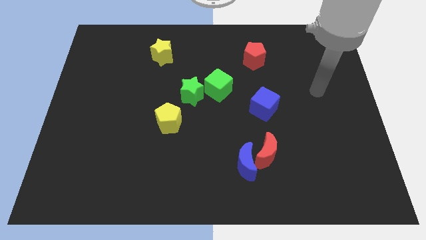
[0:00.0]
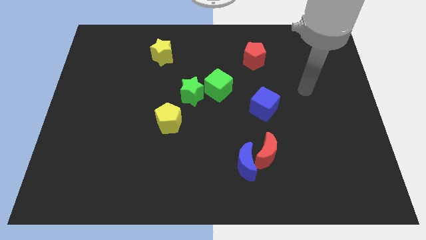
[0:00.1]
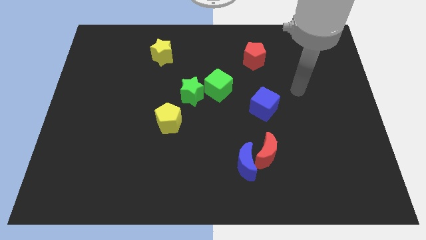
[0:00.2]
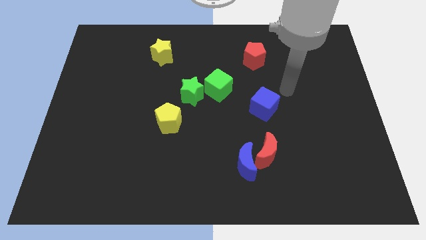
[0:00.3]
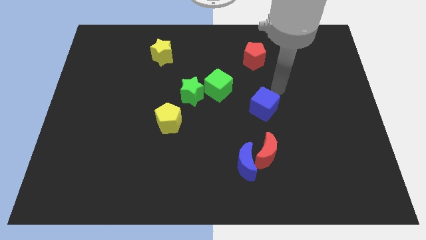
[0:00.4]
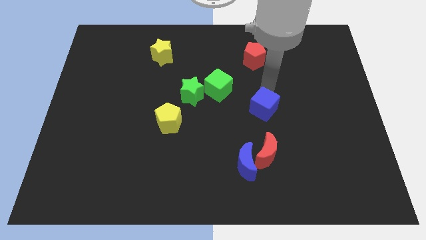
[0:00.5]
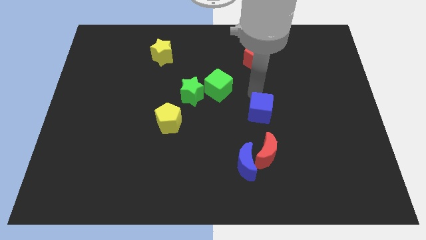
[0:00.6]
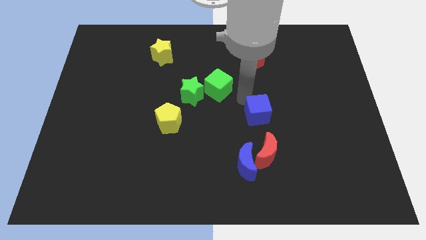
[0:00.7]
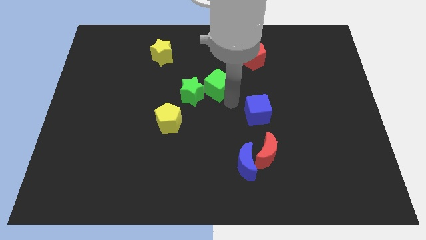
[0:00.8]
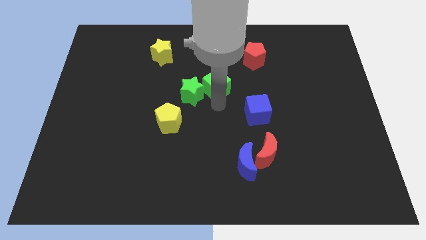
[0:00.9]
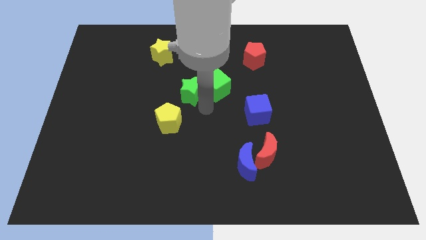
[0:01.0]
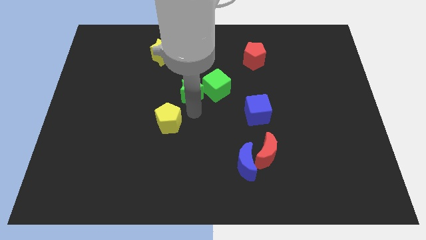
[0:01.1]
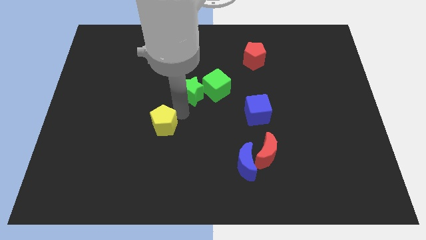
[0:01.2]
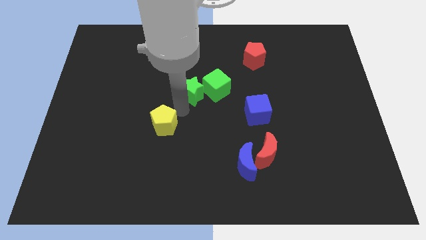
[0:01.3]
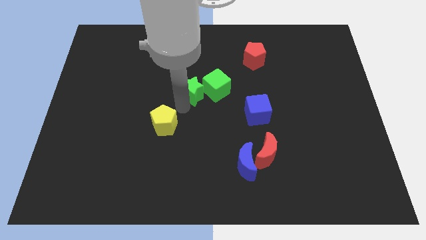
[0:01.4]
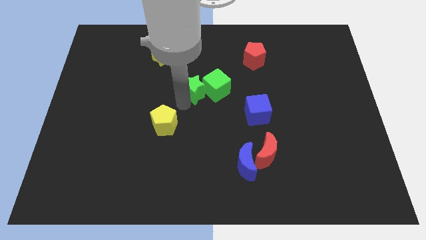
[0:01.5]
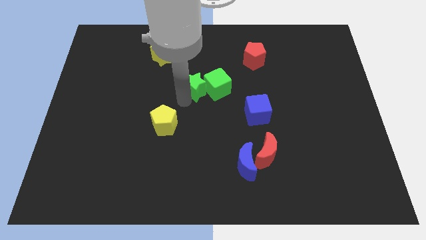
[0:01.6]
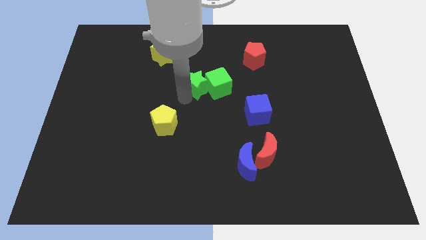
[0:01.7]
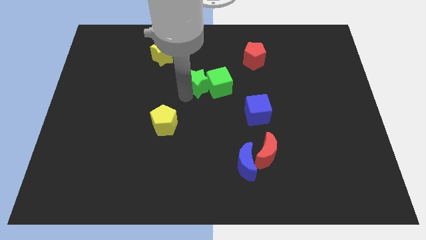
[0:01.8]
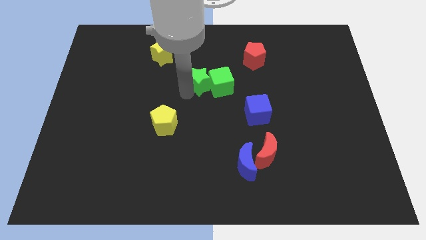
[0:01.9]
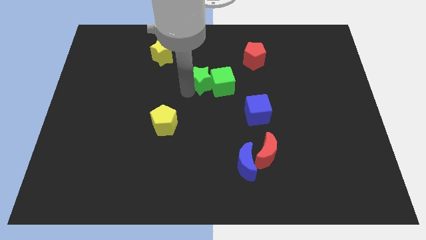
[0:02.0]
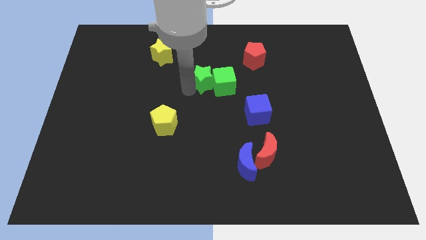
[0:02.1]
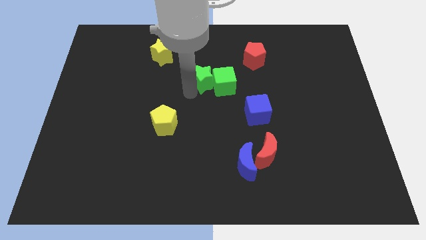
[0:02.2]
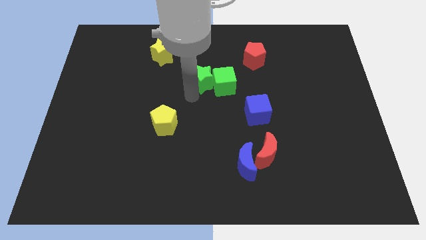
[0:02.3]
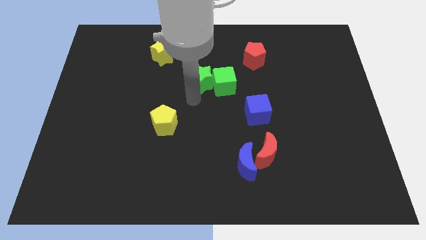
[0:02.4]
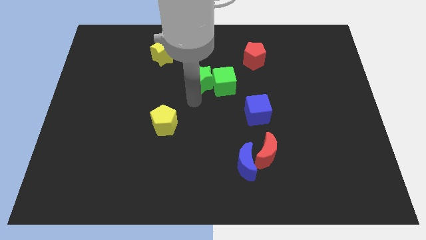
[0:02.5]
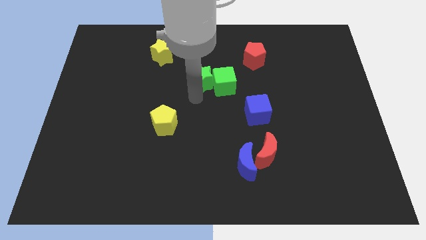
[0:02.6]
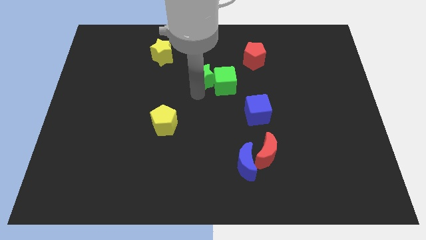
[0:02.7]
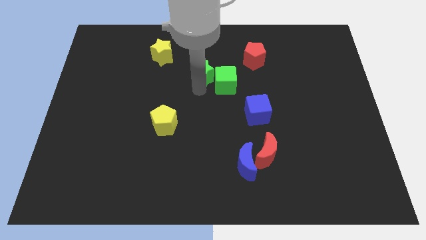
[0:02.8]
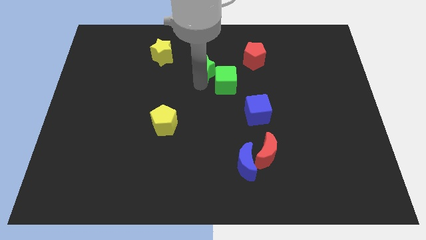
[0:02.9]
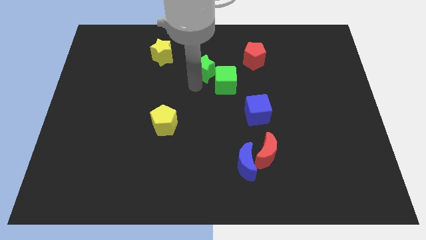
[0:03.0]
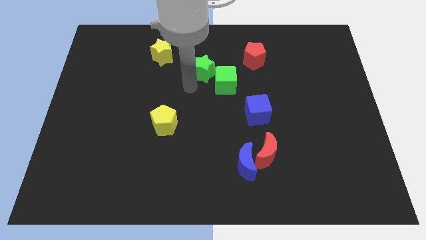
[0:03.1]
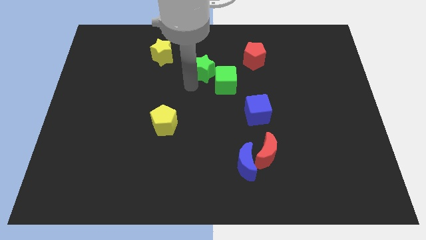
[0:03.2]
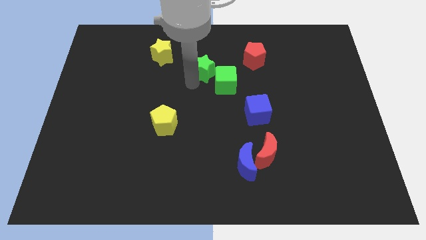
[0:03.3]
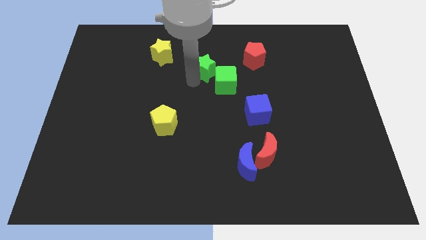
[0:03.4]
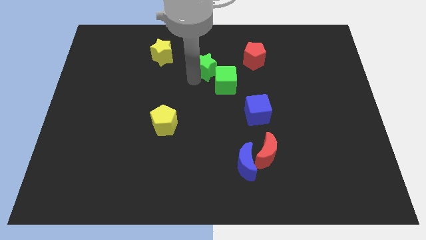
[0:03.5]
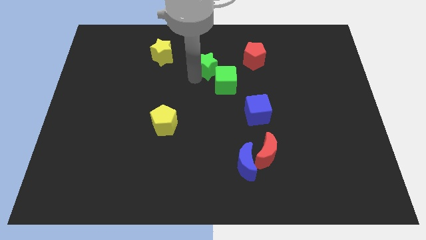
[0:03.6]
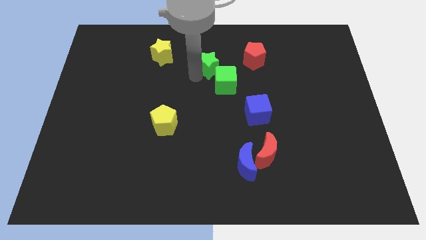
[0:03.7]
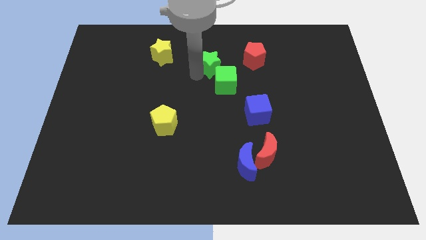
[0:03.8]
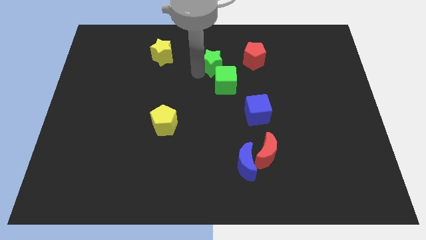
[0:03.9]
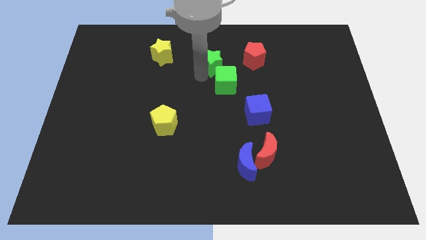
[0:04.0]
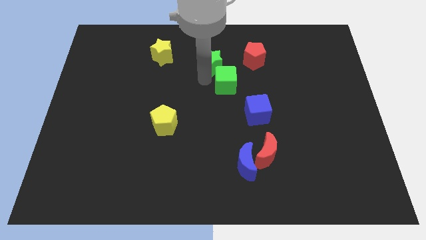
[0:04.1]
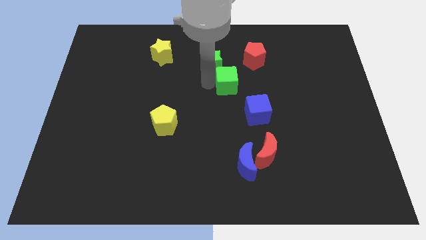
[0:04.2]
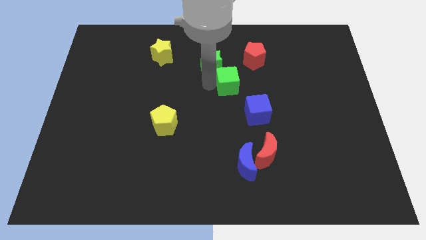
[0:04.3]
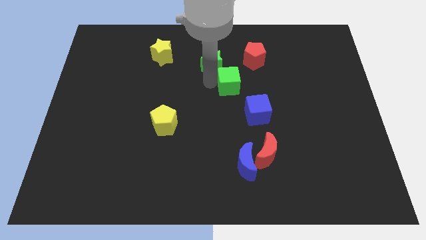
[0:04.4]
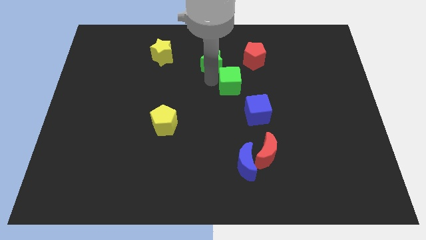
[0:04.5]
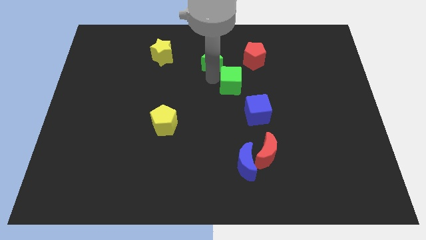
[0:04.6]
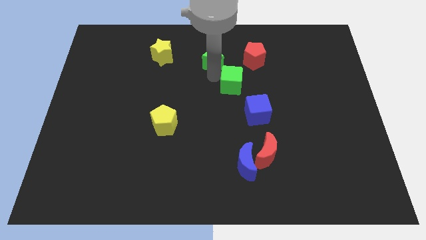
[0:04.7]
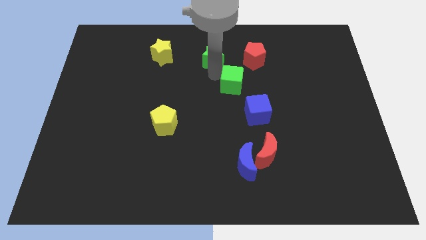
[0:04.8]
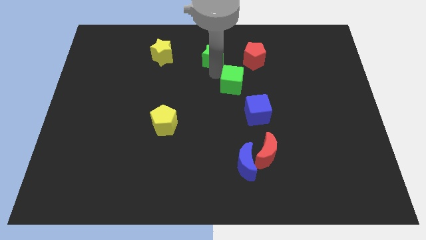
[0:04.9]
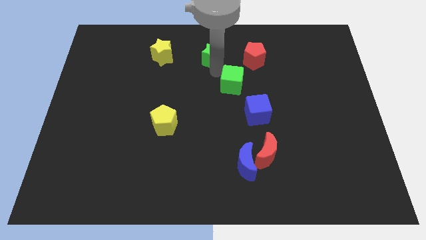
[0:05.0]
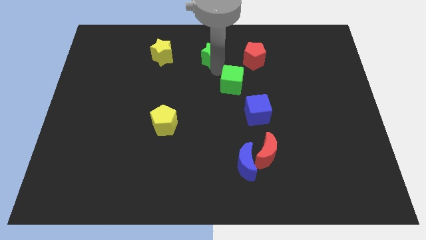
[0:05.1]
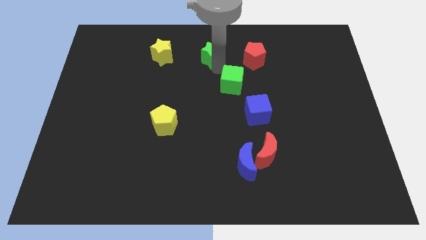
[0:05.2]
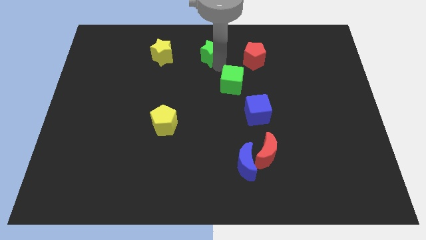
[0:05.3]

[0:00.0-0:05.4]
slide the green star to the top side

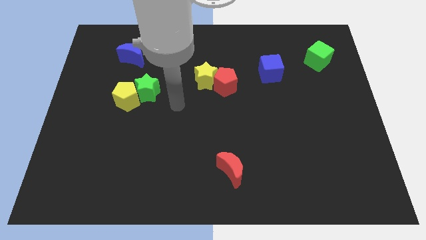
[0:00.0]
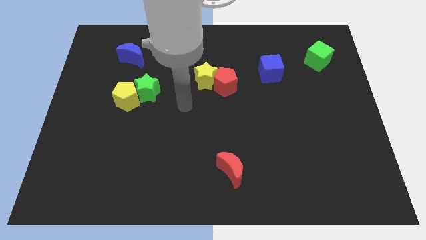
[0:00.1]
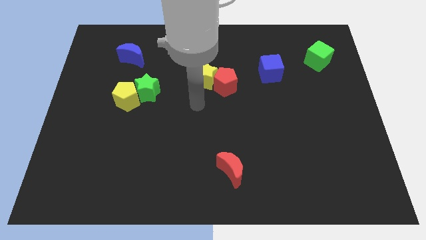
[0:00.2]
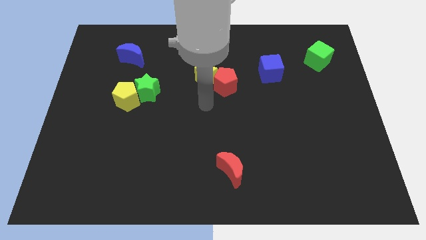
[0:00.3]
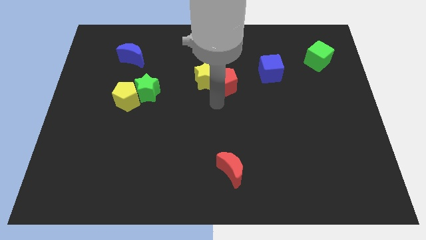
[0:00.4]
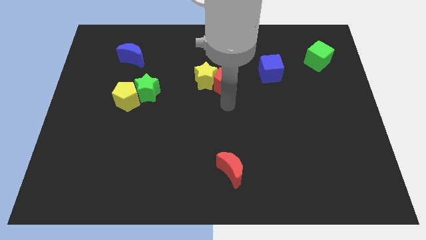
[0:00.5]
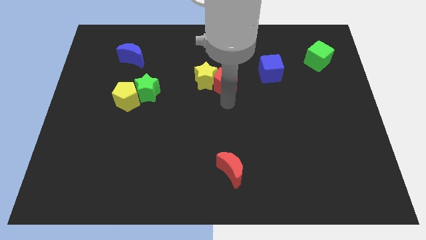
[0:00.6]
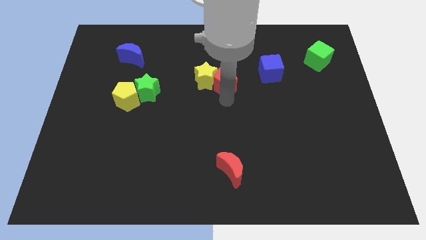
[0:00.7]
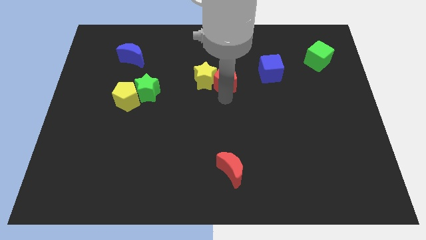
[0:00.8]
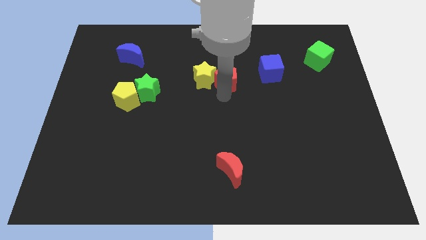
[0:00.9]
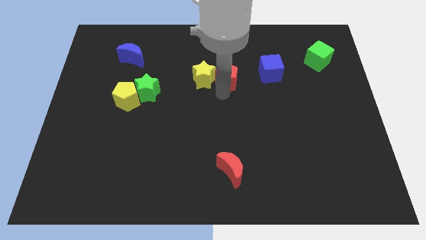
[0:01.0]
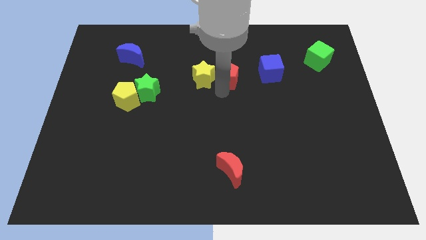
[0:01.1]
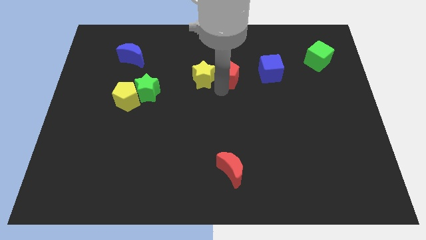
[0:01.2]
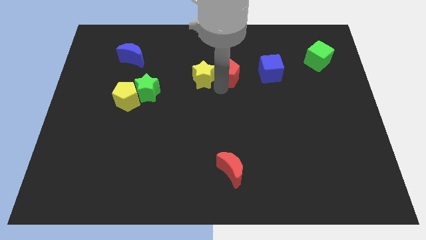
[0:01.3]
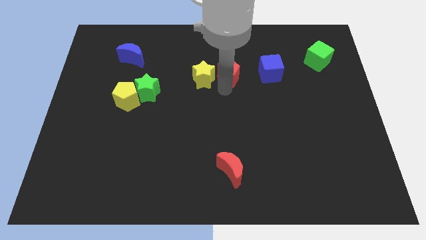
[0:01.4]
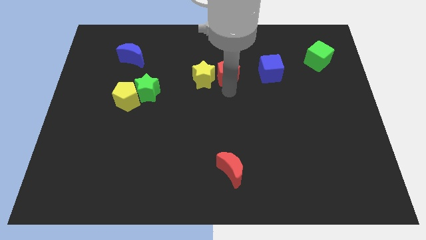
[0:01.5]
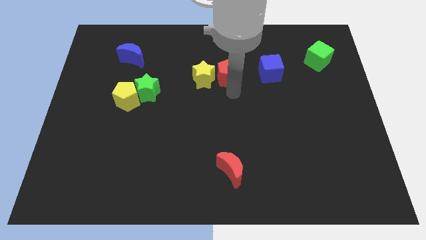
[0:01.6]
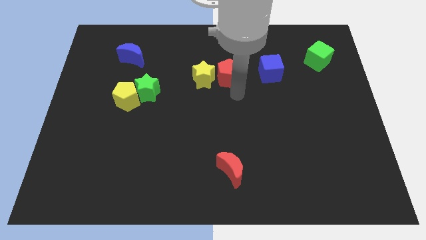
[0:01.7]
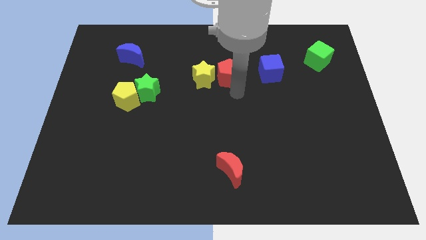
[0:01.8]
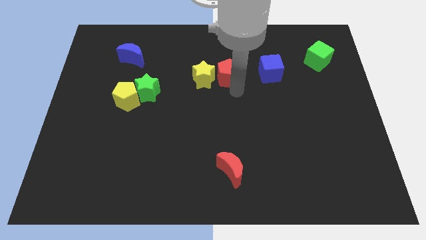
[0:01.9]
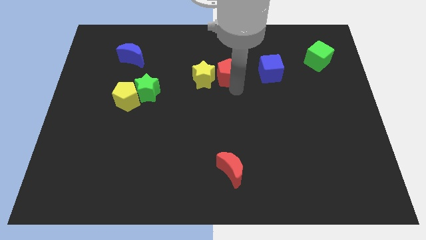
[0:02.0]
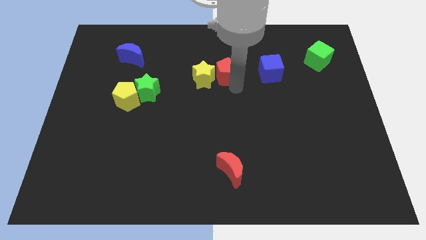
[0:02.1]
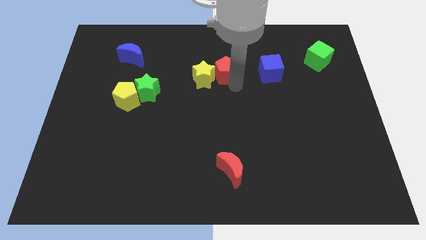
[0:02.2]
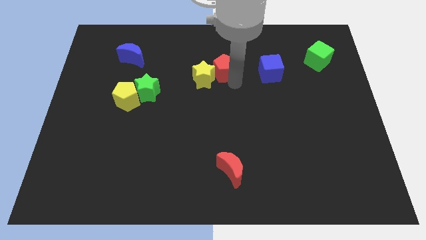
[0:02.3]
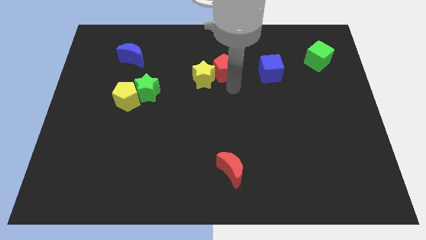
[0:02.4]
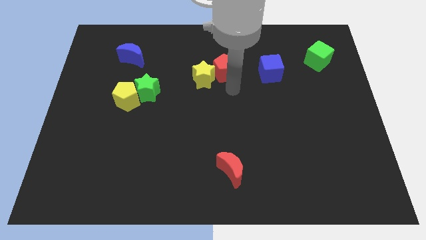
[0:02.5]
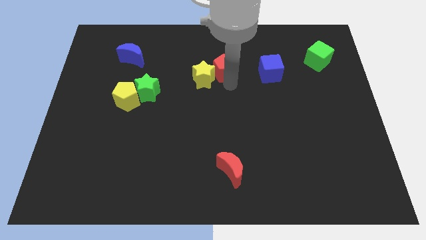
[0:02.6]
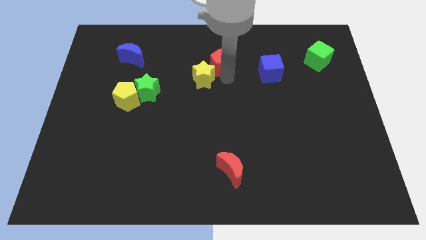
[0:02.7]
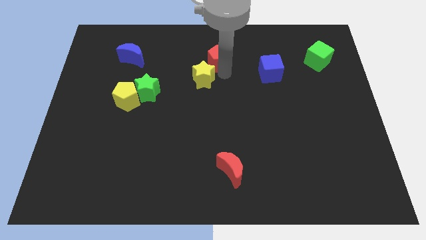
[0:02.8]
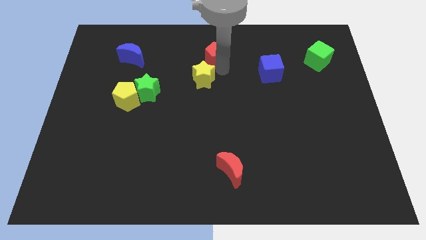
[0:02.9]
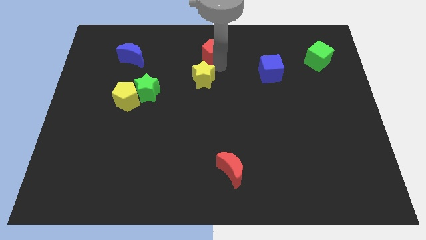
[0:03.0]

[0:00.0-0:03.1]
move the red pentagon to the towards your base
